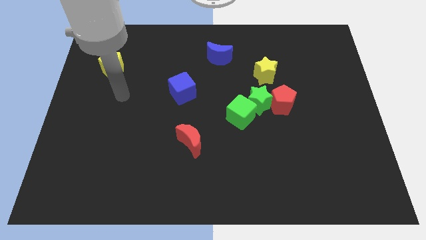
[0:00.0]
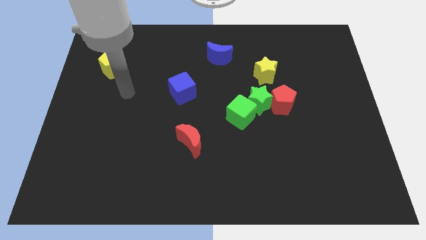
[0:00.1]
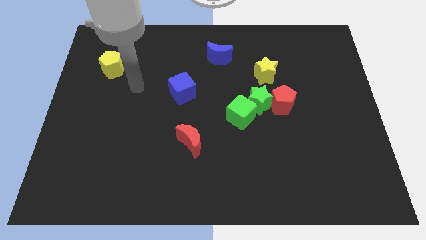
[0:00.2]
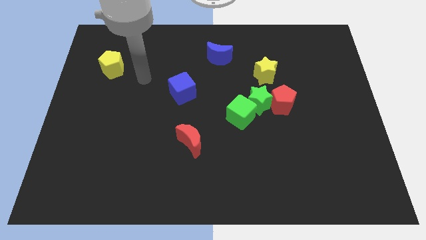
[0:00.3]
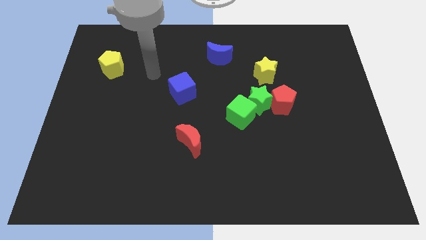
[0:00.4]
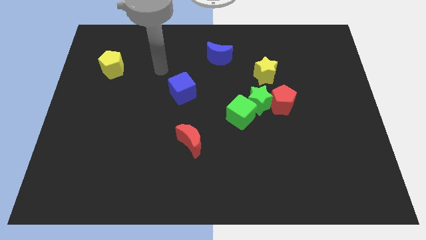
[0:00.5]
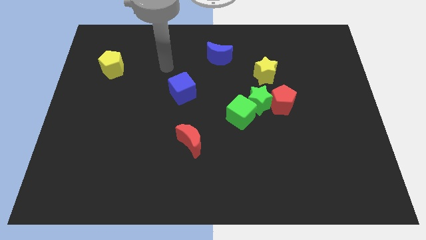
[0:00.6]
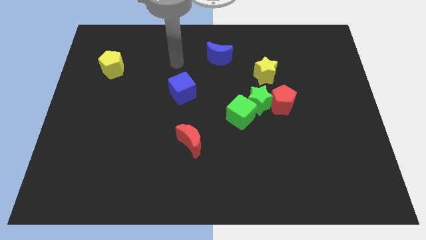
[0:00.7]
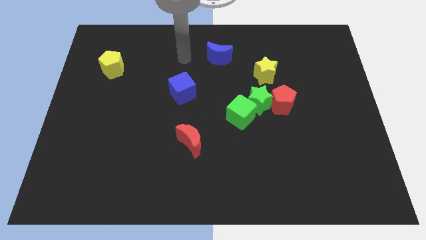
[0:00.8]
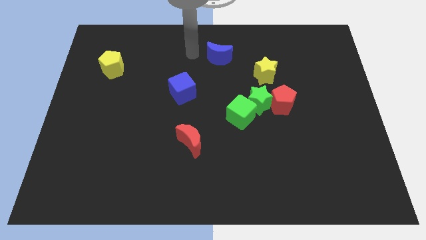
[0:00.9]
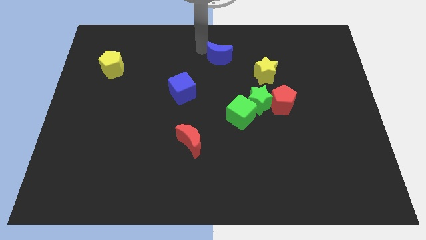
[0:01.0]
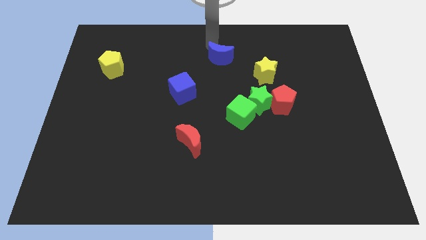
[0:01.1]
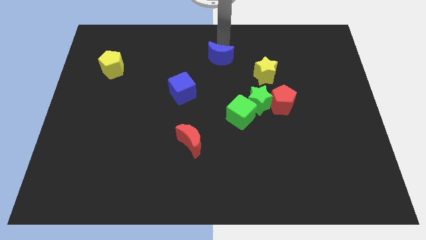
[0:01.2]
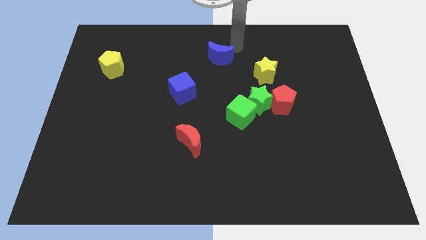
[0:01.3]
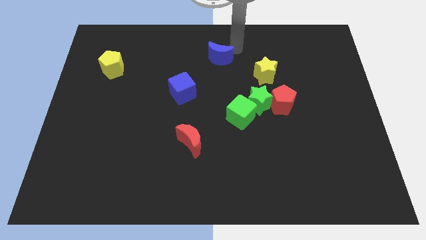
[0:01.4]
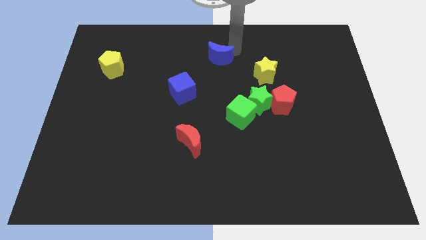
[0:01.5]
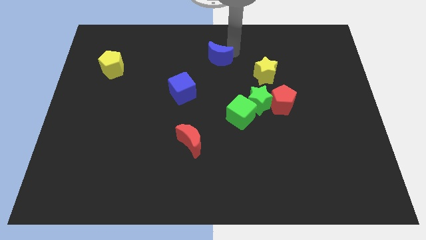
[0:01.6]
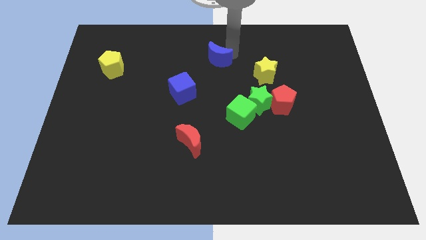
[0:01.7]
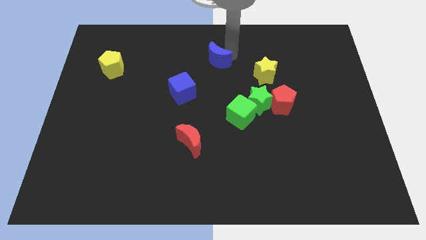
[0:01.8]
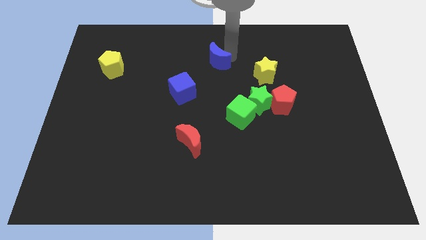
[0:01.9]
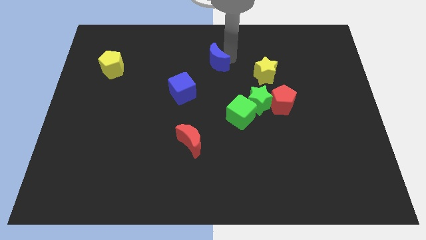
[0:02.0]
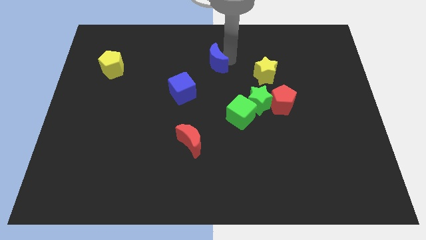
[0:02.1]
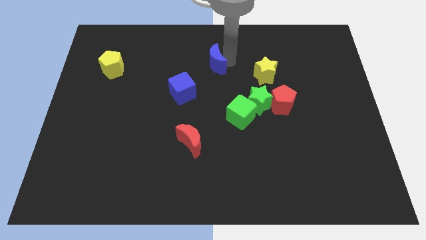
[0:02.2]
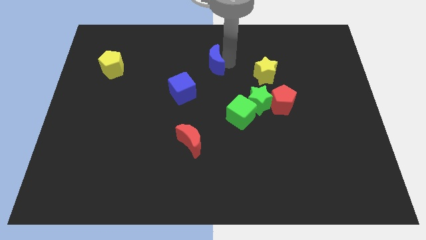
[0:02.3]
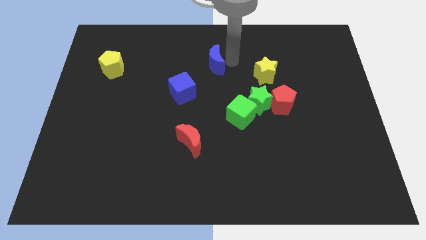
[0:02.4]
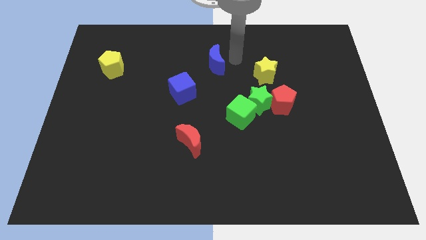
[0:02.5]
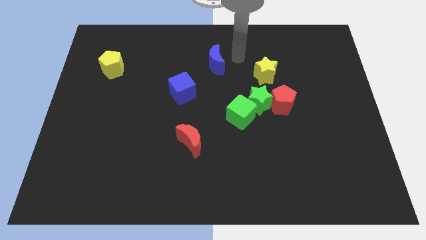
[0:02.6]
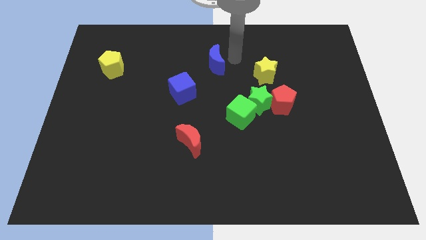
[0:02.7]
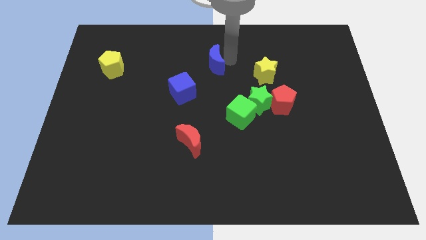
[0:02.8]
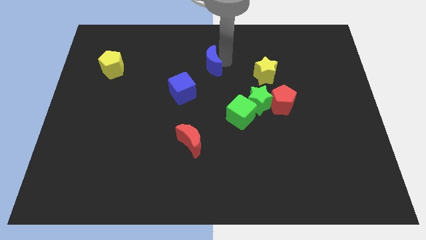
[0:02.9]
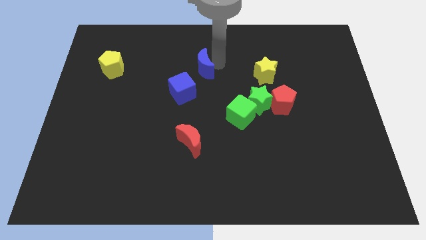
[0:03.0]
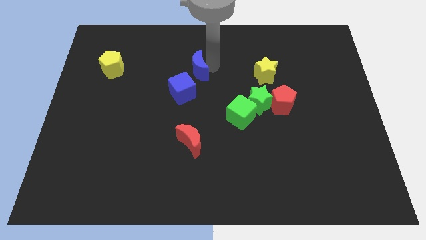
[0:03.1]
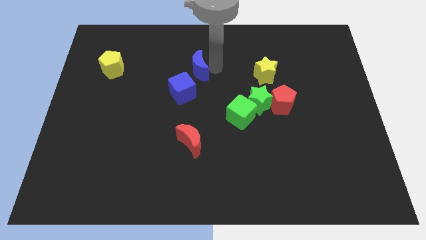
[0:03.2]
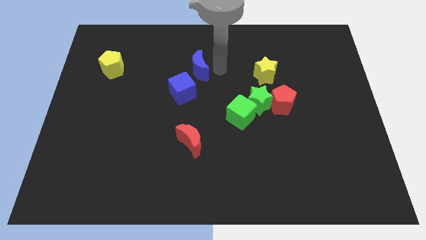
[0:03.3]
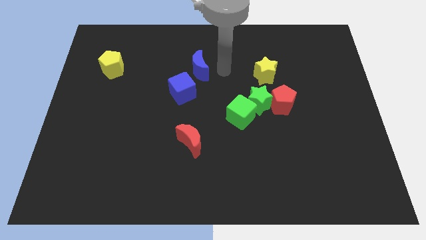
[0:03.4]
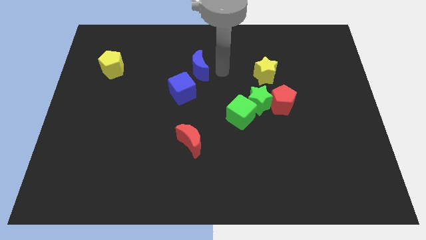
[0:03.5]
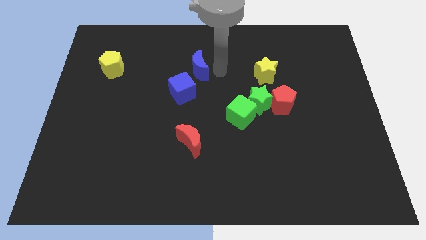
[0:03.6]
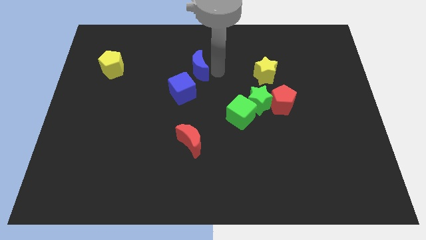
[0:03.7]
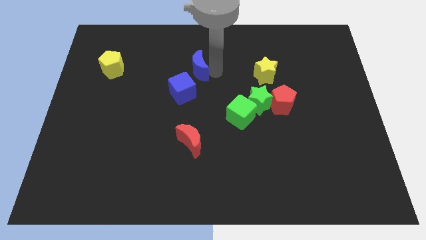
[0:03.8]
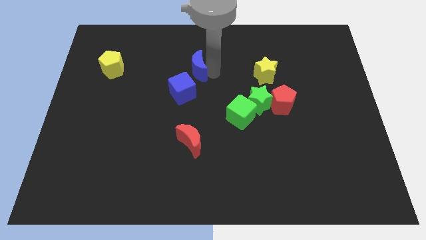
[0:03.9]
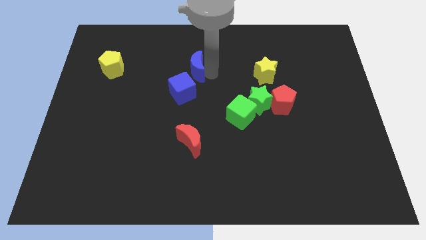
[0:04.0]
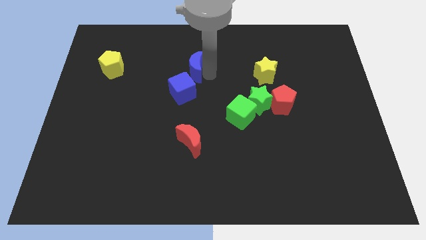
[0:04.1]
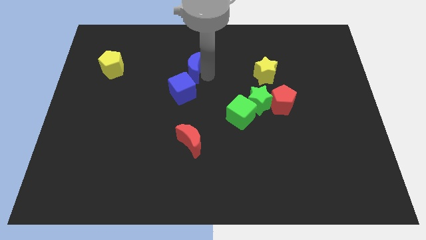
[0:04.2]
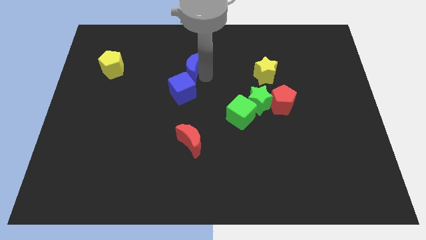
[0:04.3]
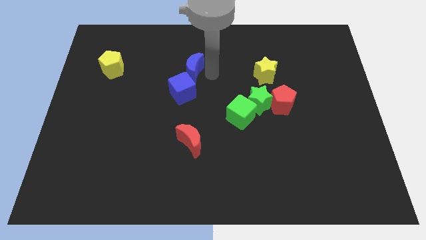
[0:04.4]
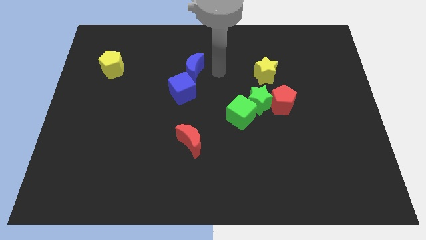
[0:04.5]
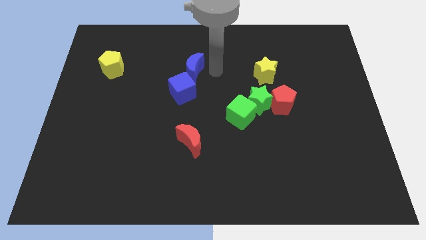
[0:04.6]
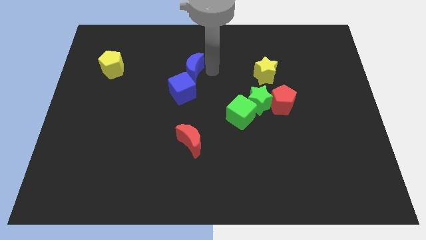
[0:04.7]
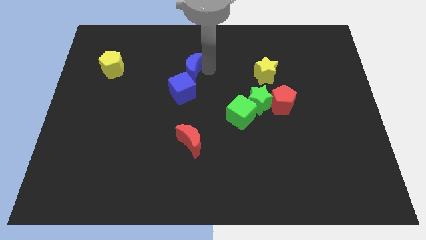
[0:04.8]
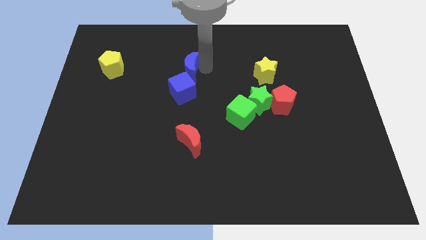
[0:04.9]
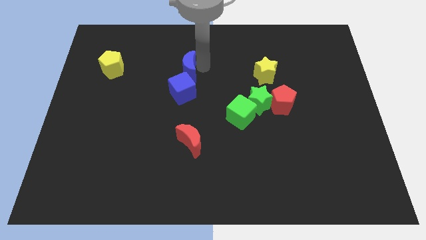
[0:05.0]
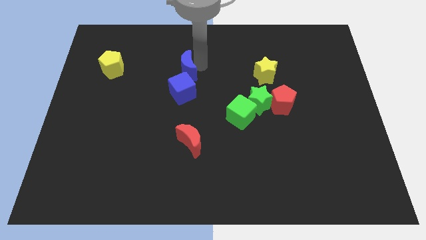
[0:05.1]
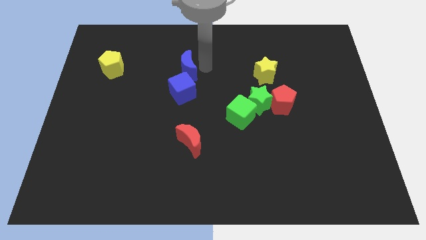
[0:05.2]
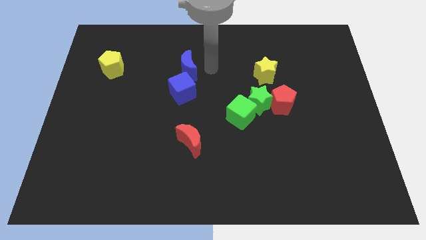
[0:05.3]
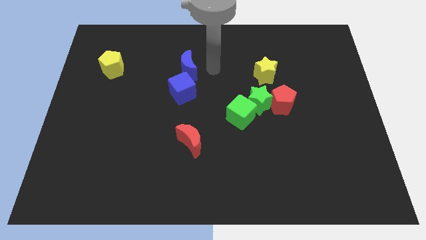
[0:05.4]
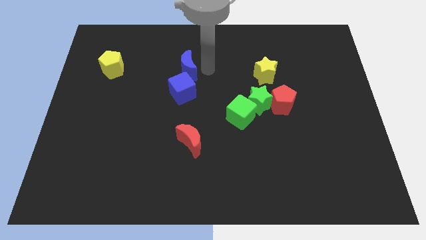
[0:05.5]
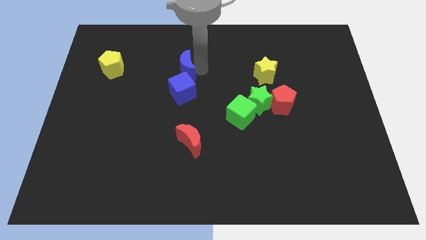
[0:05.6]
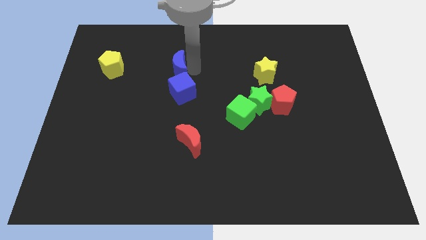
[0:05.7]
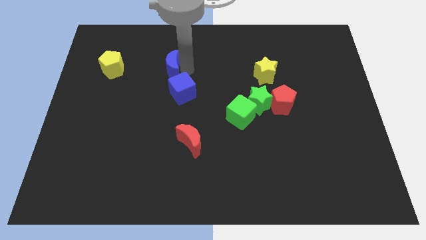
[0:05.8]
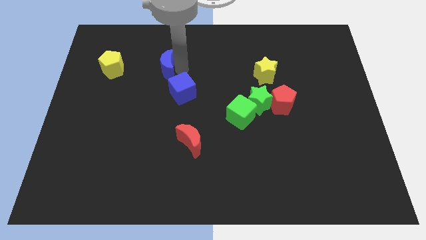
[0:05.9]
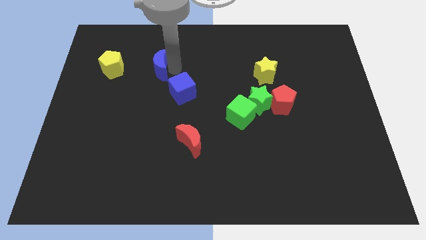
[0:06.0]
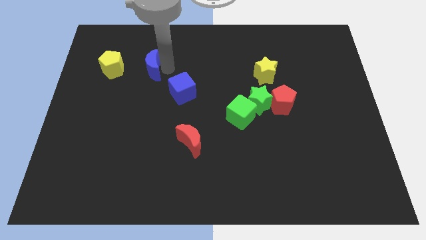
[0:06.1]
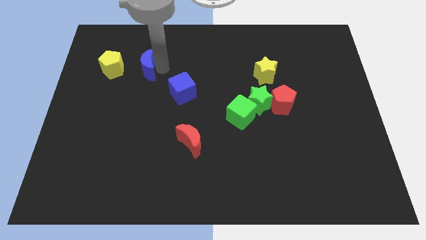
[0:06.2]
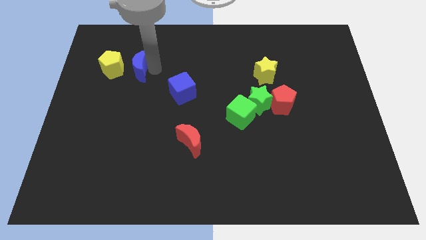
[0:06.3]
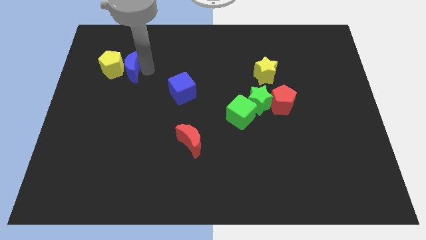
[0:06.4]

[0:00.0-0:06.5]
put the blue moon close to the yellow pentagon

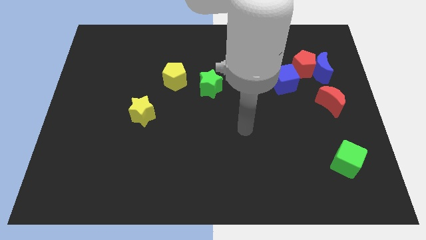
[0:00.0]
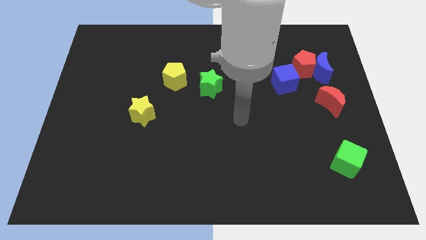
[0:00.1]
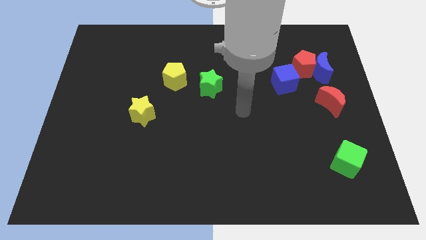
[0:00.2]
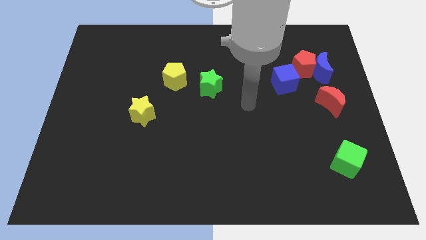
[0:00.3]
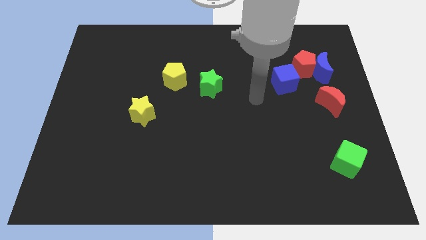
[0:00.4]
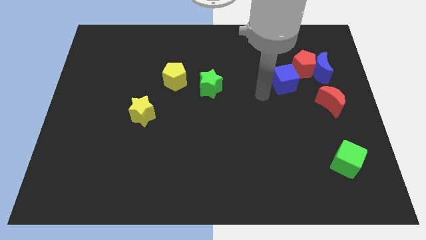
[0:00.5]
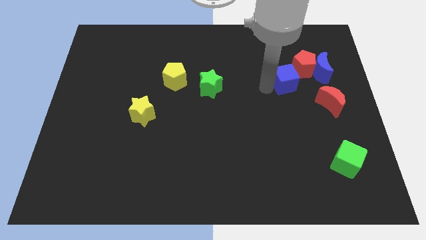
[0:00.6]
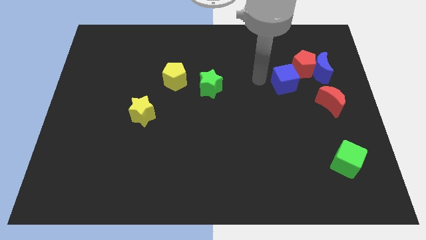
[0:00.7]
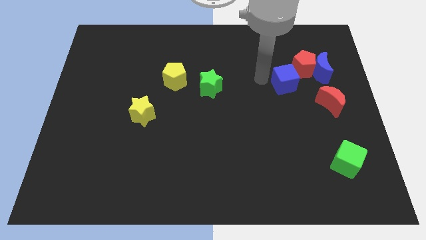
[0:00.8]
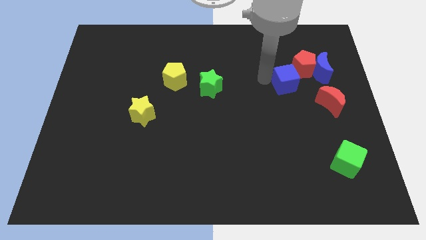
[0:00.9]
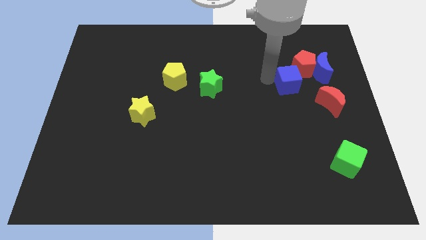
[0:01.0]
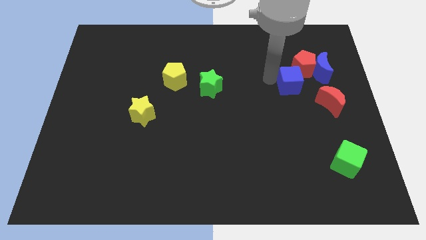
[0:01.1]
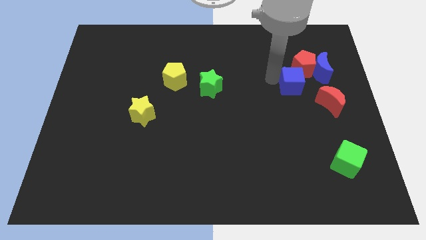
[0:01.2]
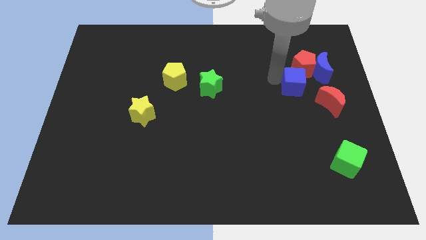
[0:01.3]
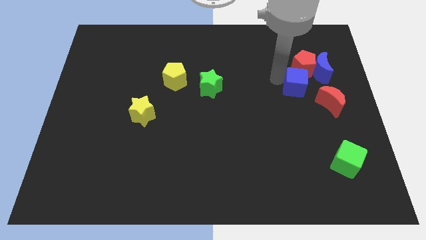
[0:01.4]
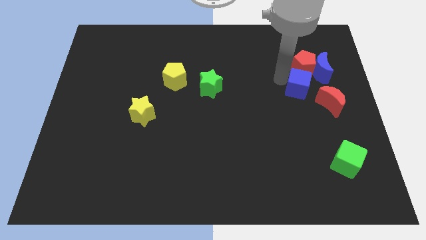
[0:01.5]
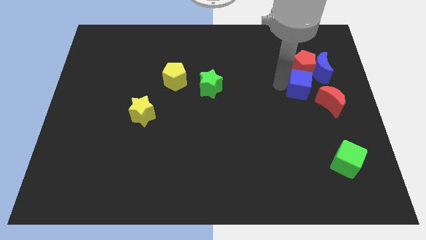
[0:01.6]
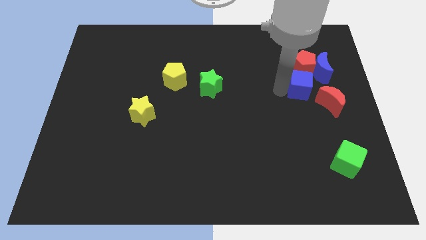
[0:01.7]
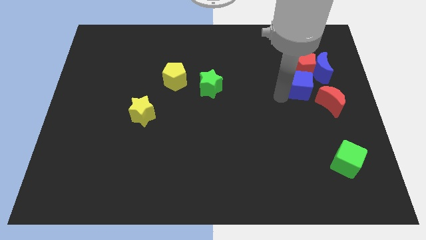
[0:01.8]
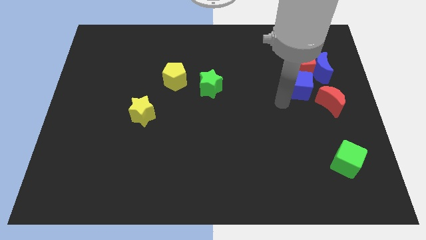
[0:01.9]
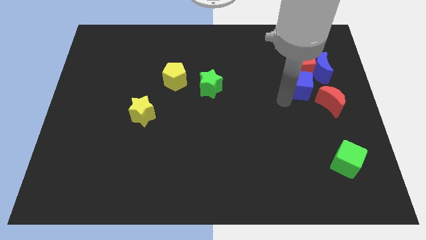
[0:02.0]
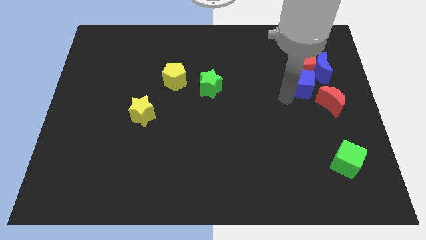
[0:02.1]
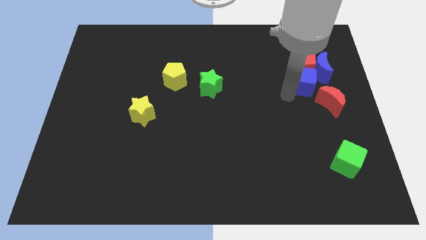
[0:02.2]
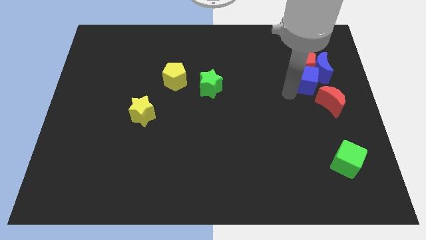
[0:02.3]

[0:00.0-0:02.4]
push the blue cube towards the blue moon
